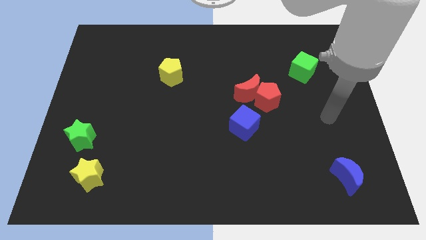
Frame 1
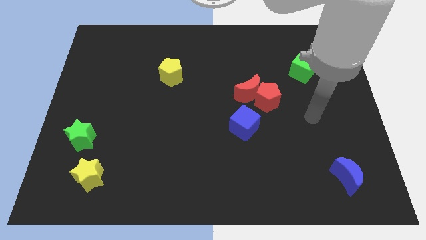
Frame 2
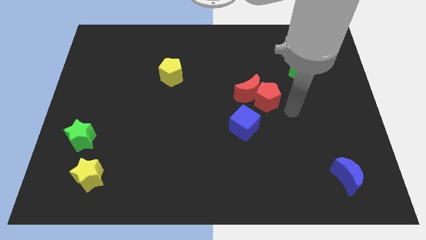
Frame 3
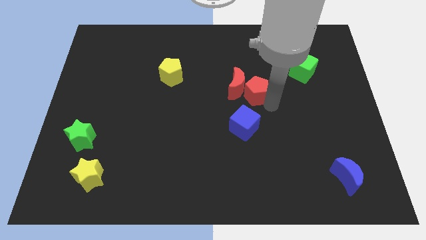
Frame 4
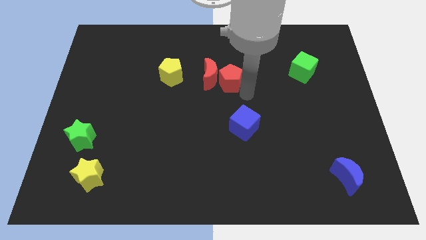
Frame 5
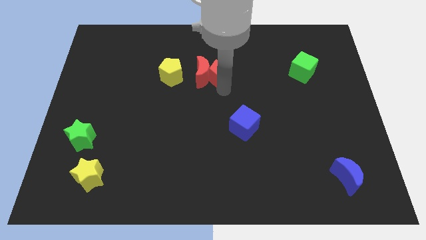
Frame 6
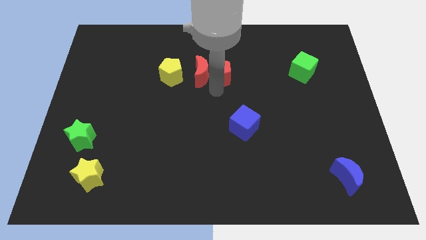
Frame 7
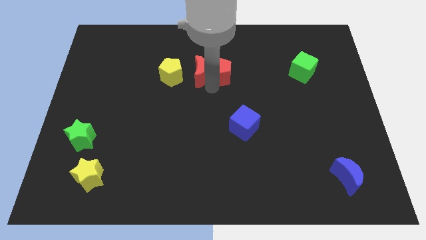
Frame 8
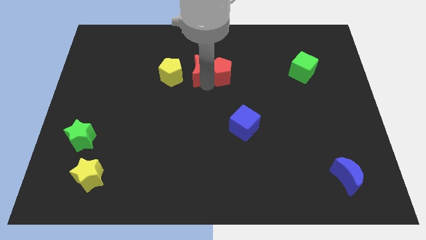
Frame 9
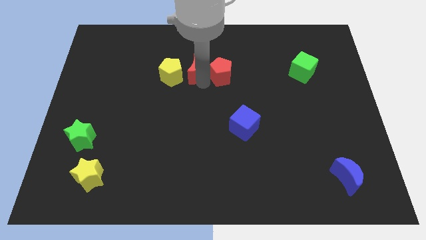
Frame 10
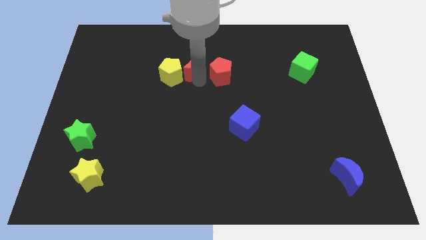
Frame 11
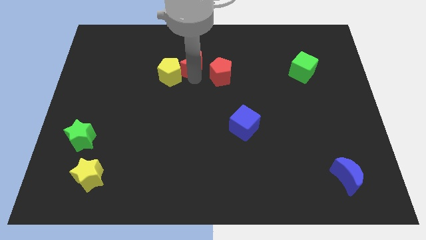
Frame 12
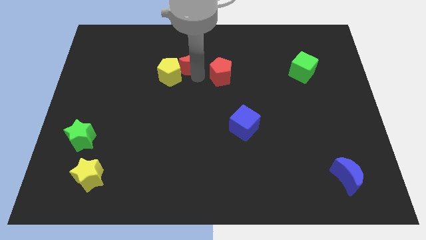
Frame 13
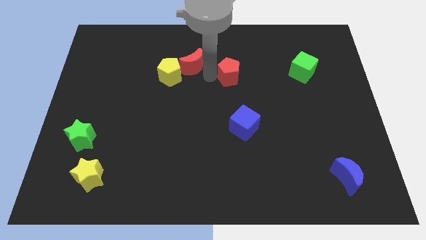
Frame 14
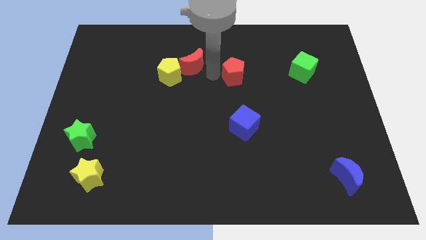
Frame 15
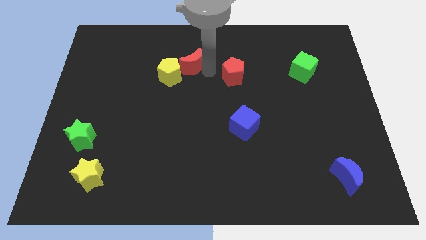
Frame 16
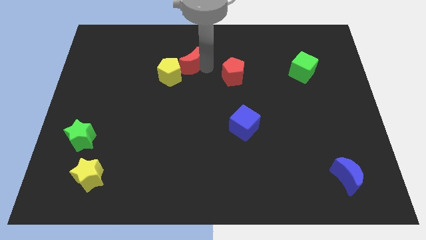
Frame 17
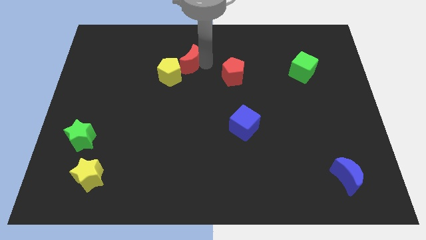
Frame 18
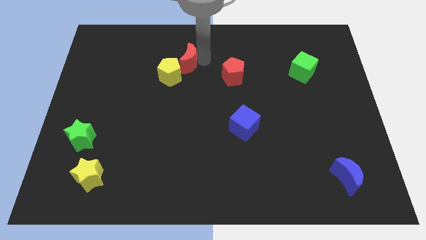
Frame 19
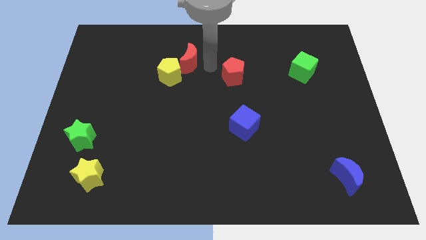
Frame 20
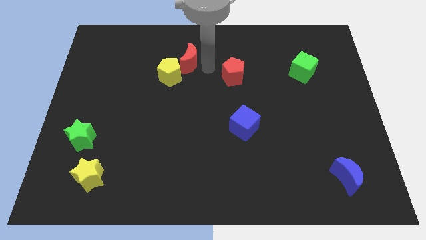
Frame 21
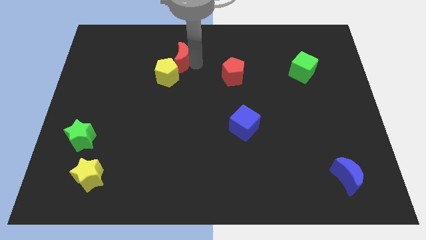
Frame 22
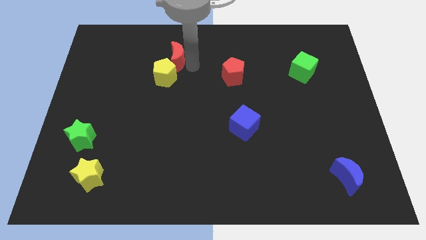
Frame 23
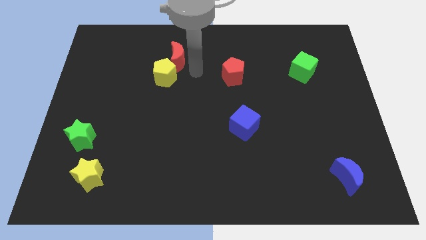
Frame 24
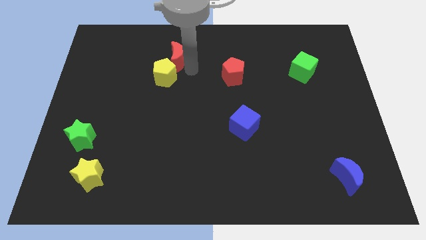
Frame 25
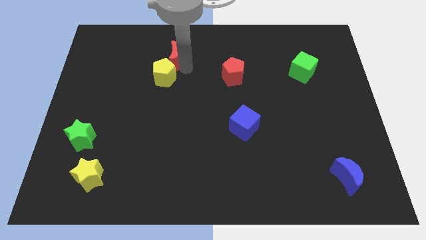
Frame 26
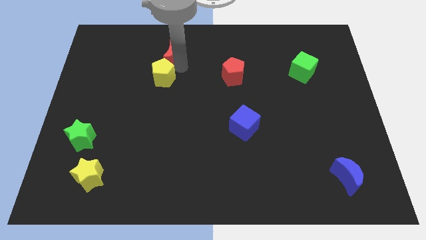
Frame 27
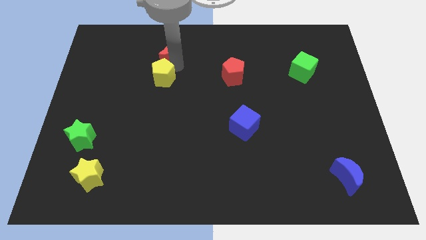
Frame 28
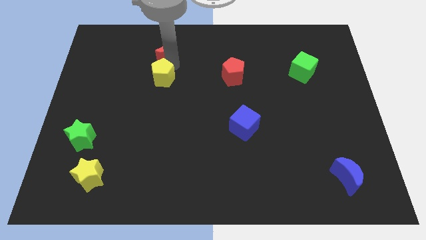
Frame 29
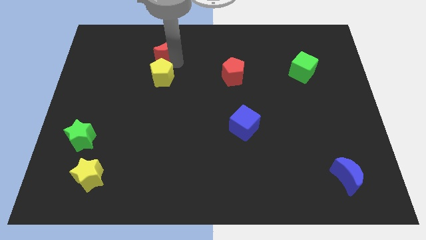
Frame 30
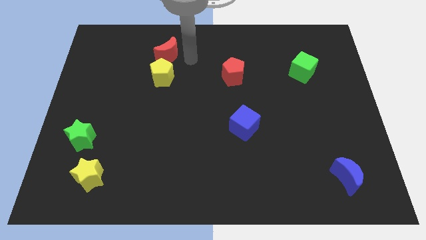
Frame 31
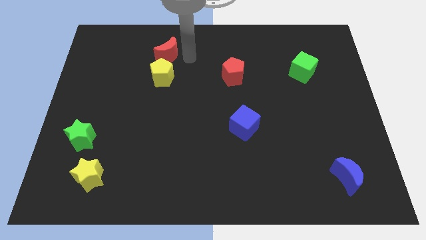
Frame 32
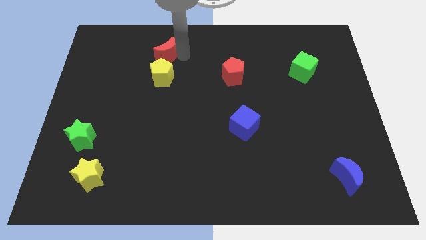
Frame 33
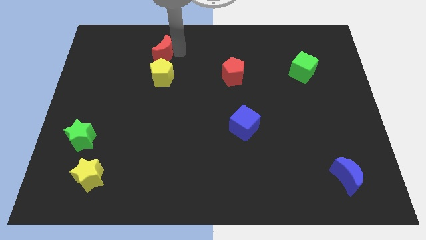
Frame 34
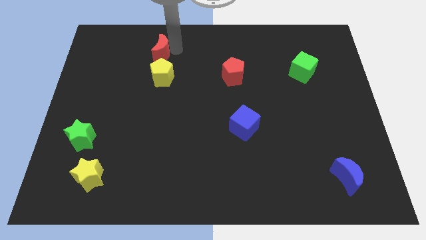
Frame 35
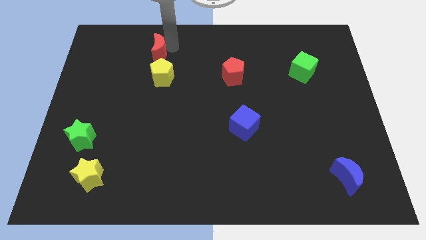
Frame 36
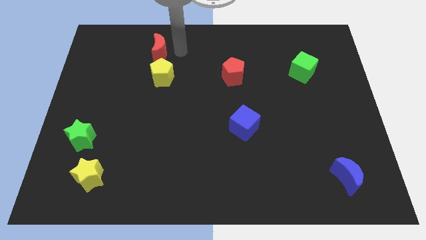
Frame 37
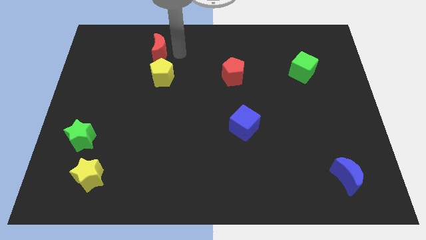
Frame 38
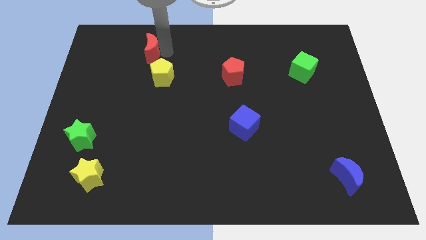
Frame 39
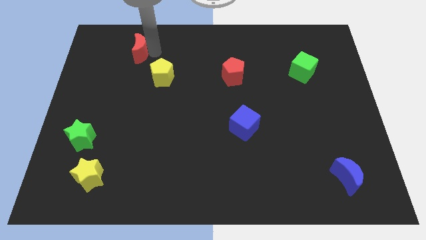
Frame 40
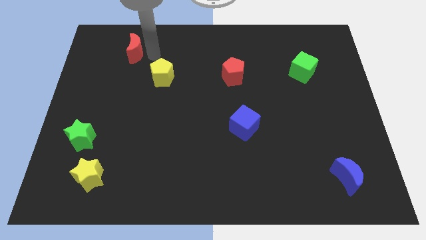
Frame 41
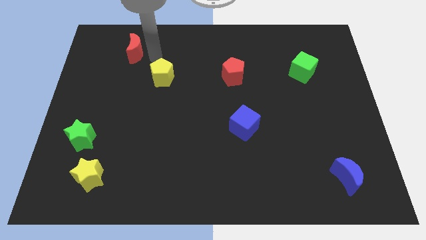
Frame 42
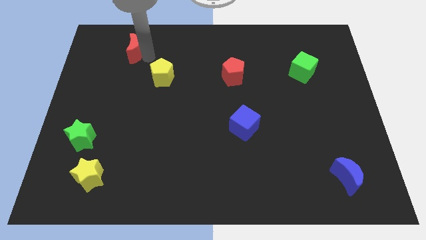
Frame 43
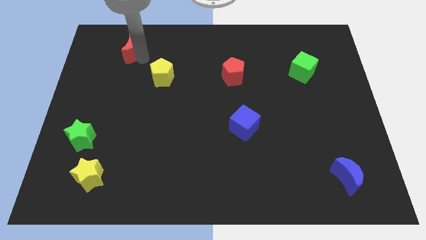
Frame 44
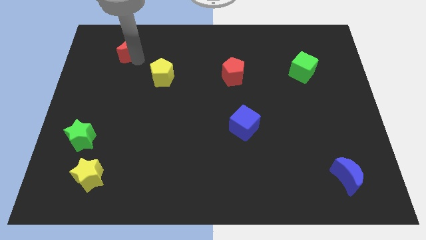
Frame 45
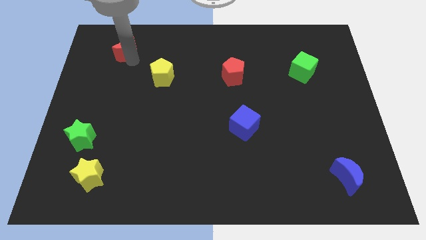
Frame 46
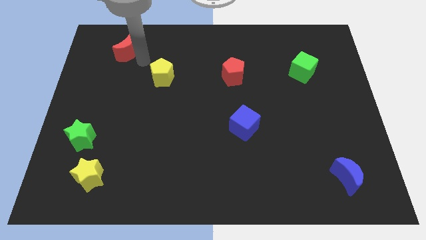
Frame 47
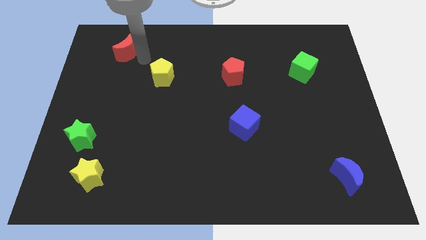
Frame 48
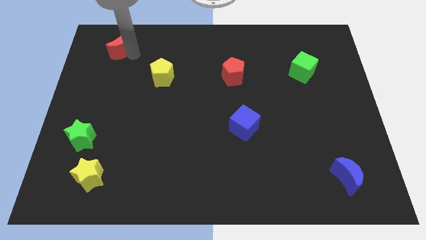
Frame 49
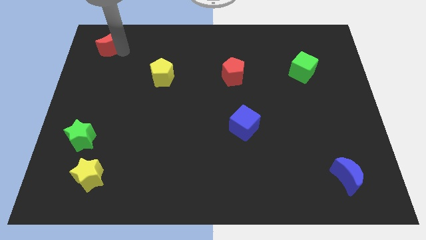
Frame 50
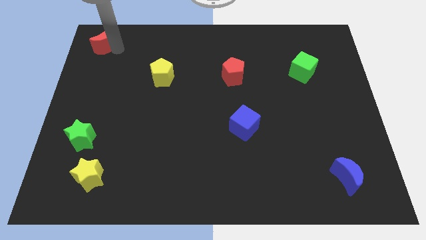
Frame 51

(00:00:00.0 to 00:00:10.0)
put the red moon to the top left
